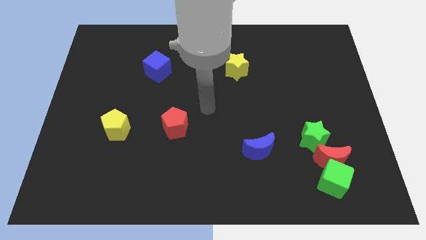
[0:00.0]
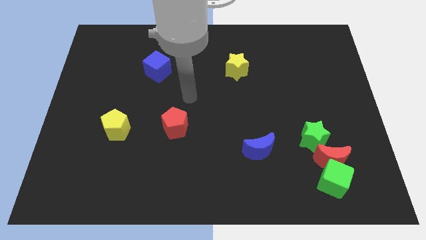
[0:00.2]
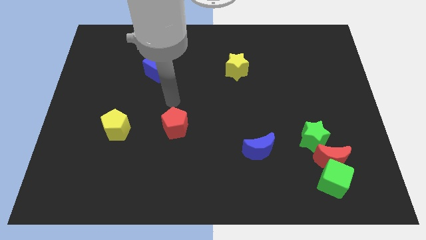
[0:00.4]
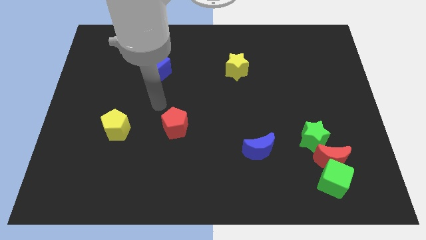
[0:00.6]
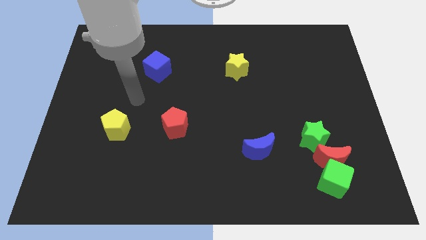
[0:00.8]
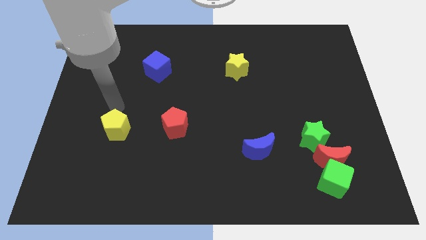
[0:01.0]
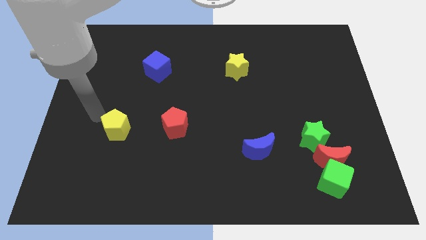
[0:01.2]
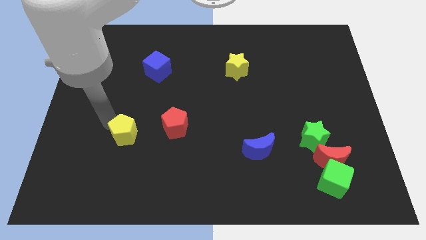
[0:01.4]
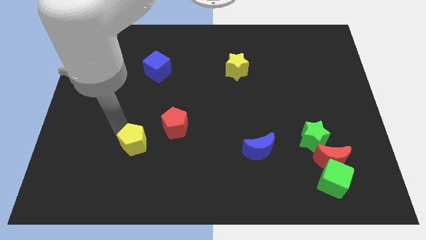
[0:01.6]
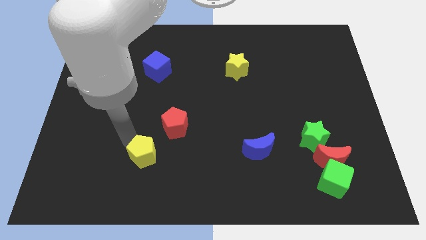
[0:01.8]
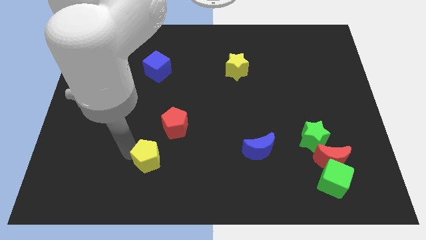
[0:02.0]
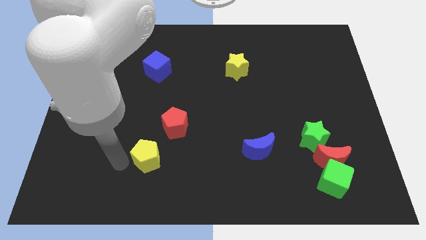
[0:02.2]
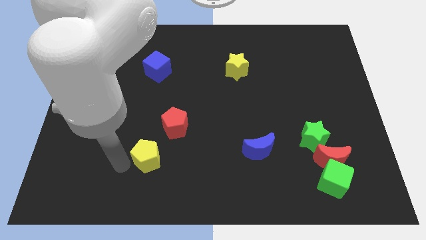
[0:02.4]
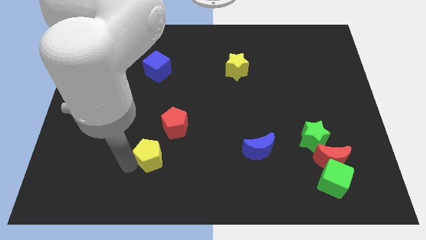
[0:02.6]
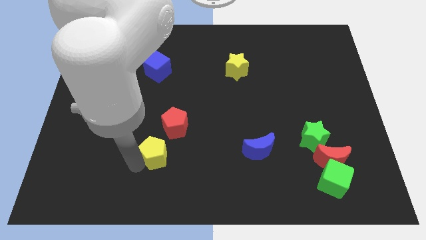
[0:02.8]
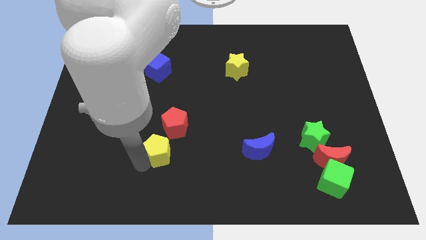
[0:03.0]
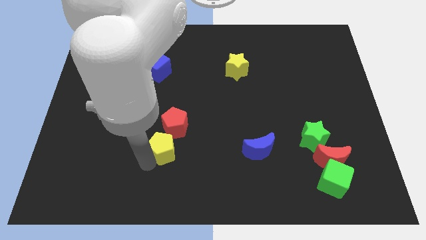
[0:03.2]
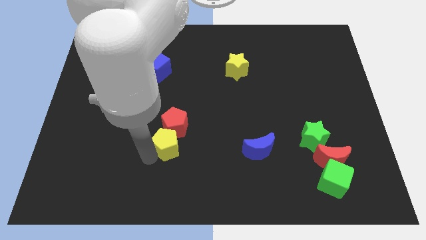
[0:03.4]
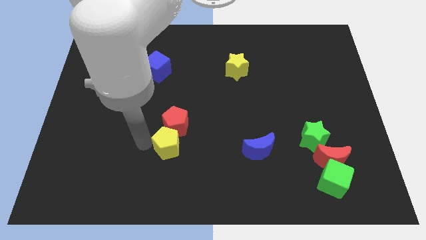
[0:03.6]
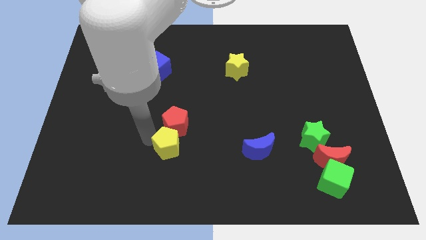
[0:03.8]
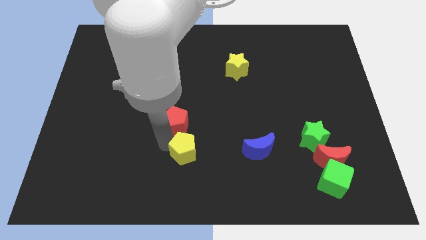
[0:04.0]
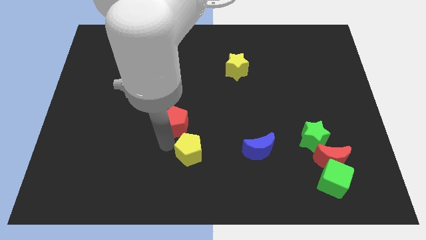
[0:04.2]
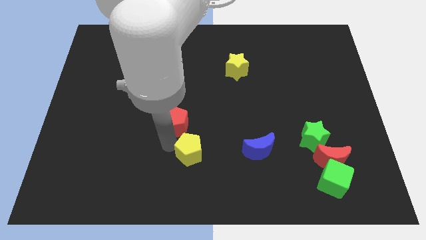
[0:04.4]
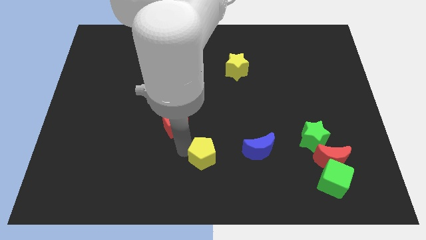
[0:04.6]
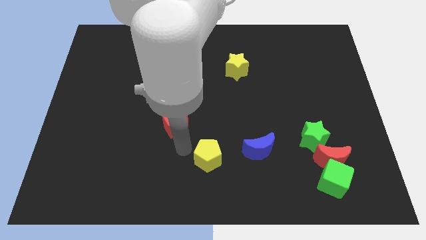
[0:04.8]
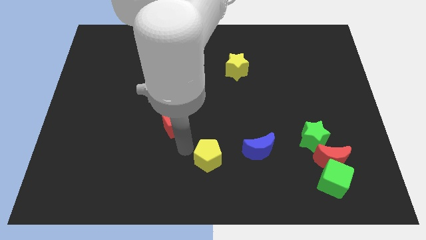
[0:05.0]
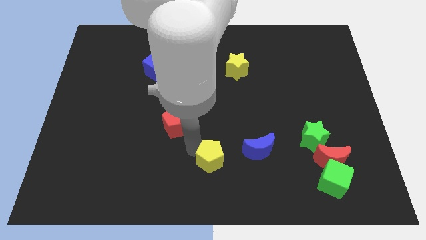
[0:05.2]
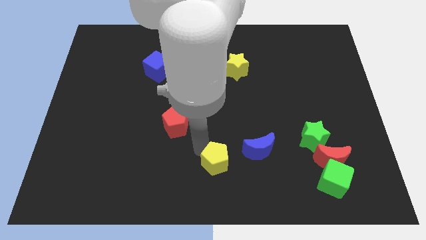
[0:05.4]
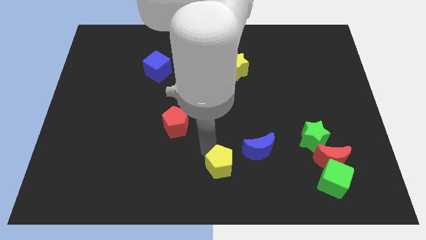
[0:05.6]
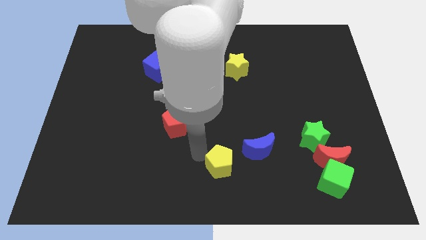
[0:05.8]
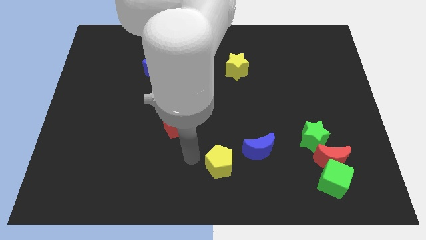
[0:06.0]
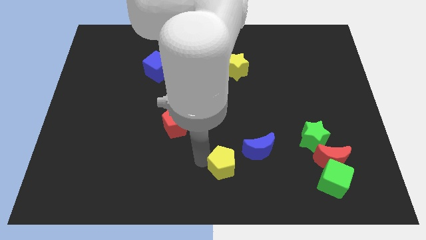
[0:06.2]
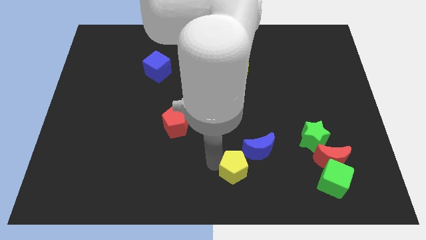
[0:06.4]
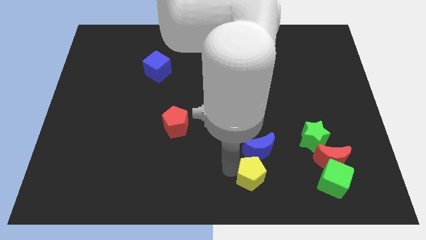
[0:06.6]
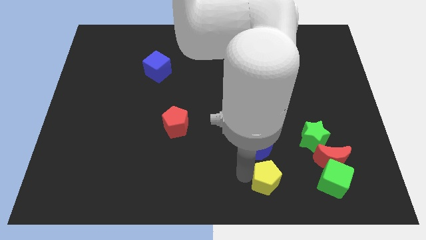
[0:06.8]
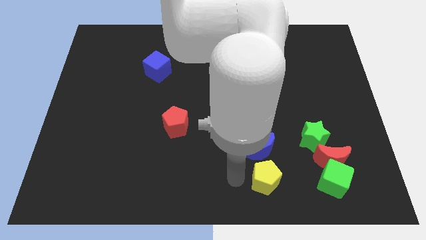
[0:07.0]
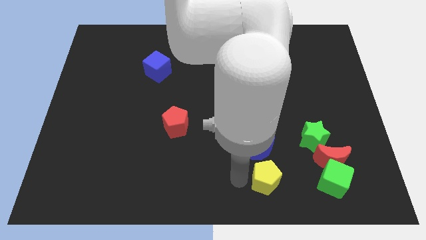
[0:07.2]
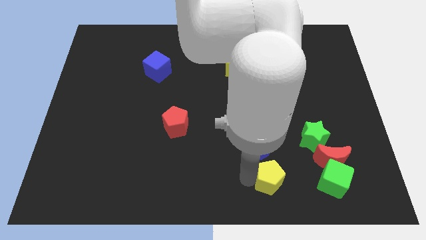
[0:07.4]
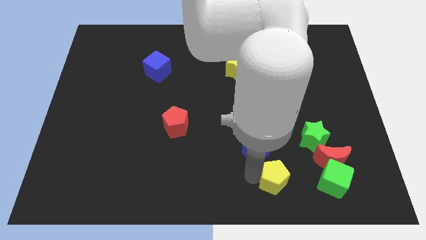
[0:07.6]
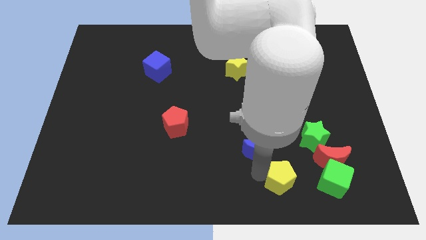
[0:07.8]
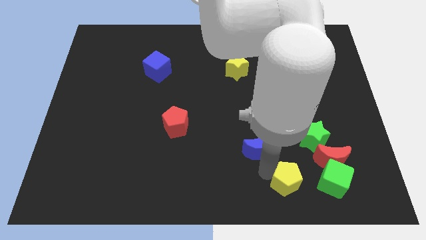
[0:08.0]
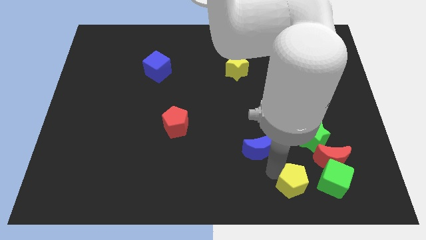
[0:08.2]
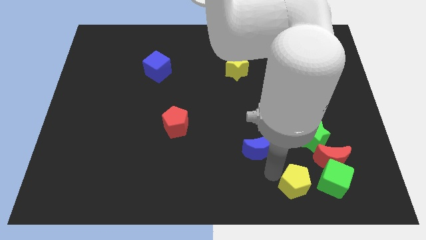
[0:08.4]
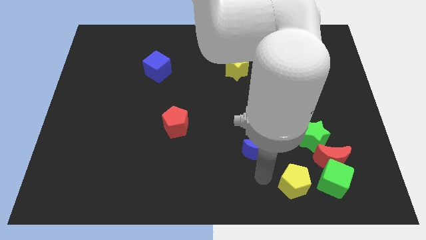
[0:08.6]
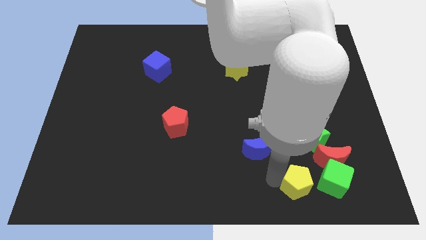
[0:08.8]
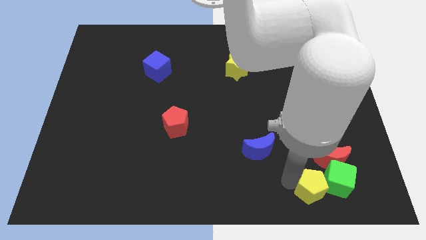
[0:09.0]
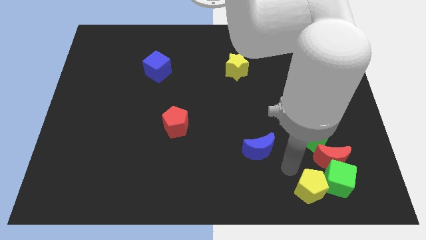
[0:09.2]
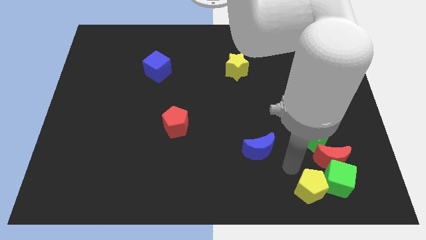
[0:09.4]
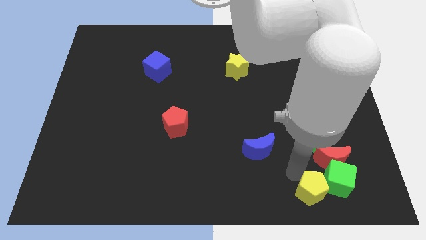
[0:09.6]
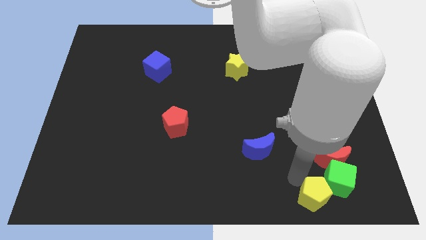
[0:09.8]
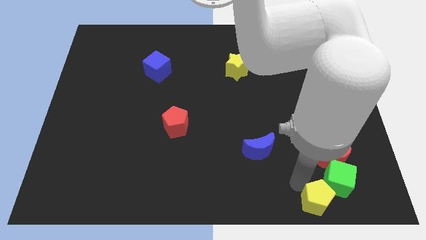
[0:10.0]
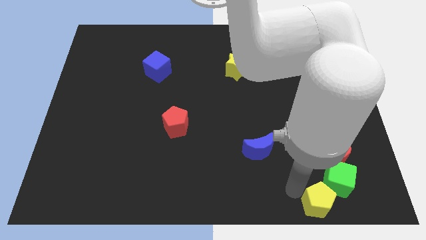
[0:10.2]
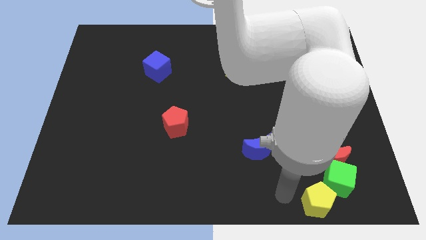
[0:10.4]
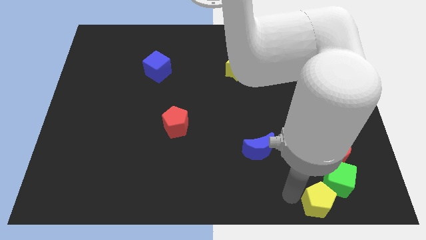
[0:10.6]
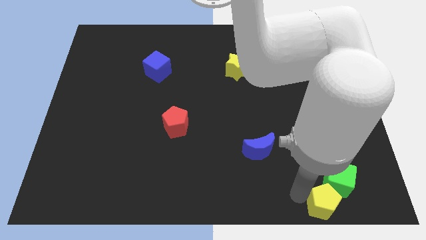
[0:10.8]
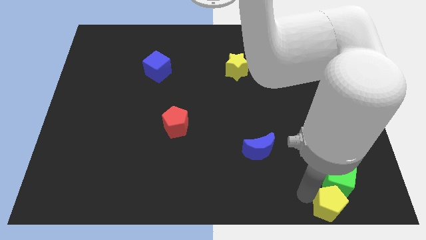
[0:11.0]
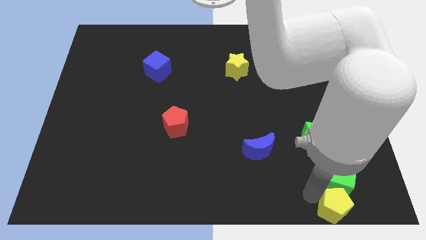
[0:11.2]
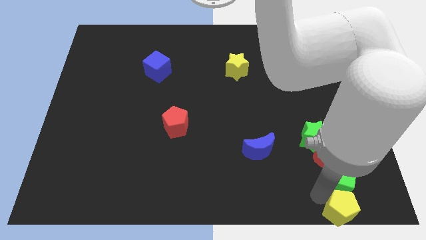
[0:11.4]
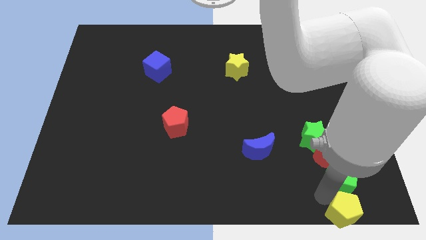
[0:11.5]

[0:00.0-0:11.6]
put the yellow pentagon to the bottom right corner

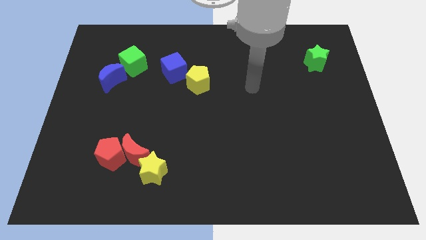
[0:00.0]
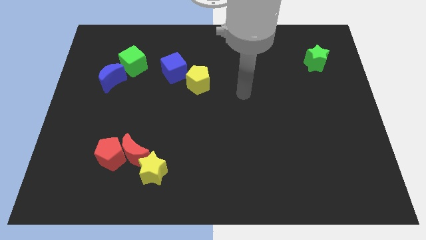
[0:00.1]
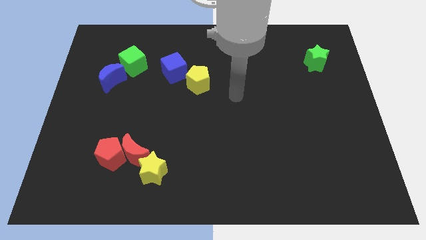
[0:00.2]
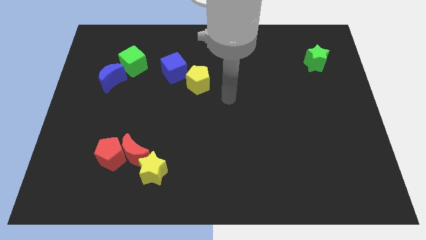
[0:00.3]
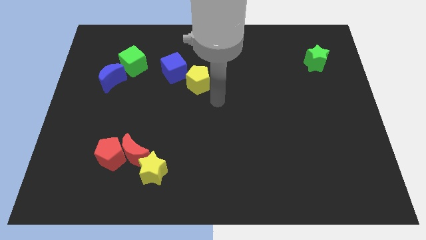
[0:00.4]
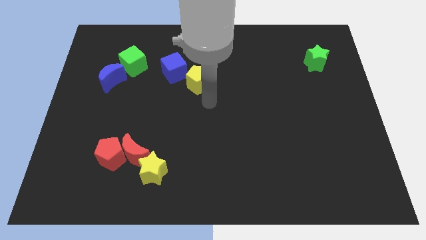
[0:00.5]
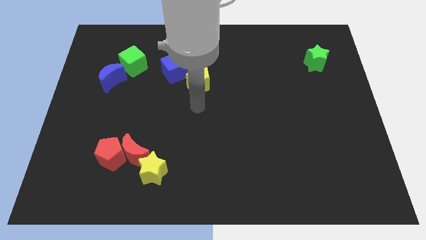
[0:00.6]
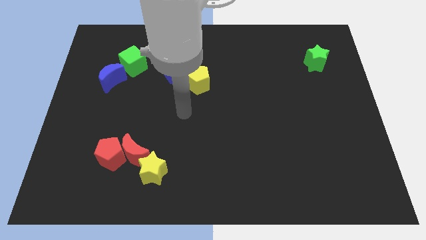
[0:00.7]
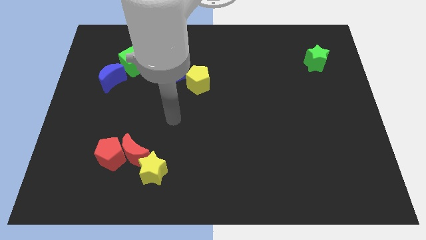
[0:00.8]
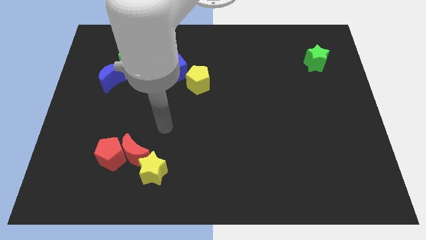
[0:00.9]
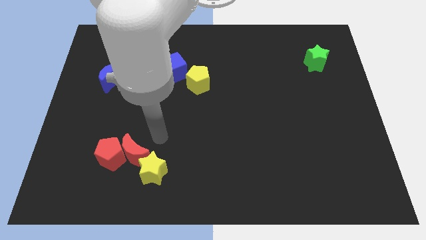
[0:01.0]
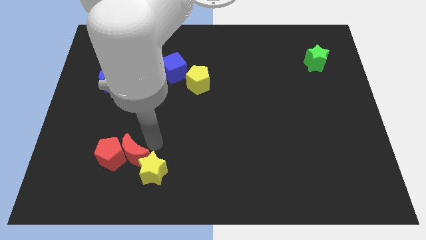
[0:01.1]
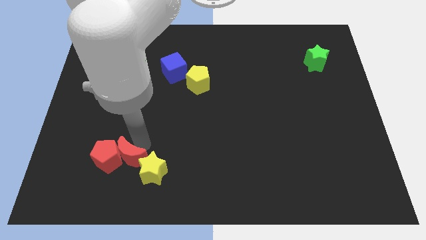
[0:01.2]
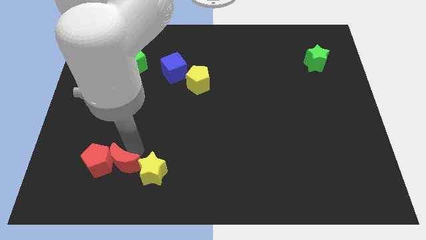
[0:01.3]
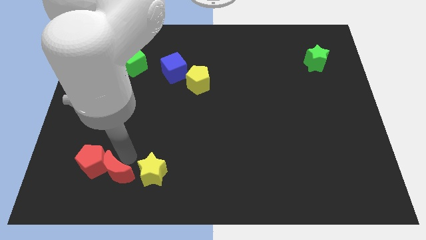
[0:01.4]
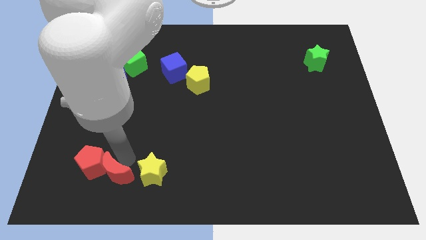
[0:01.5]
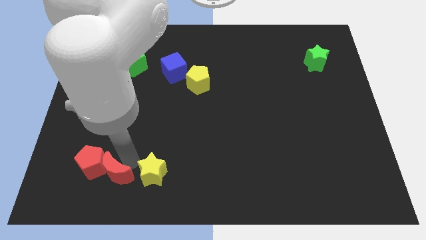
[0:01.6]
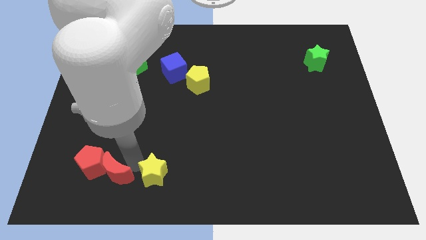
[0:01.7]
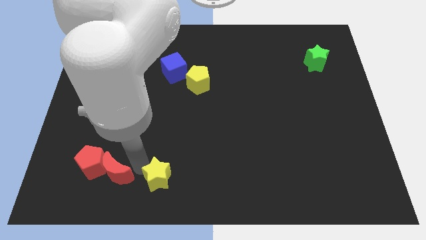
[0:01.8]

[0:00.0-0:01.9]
put the yellow star to the bottom side
